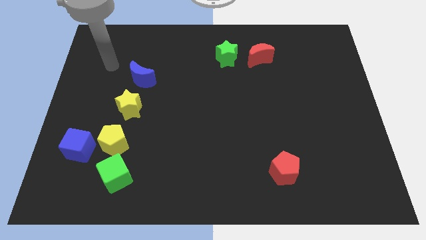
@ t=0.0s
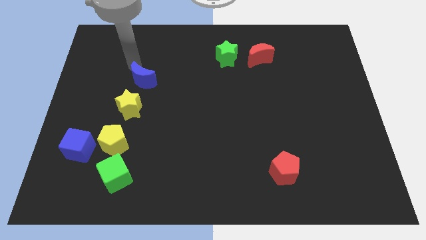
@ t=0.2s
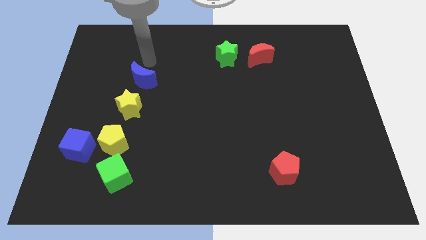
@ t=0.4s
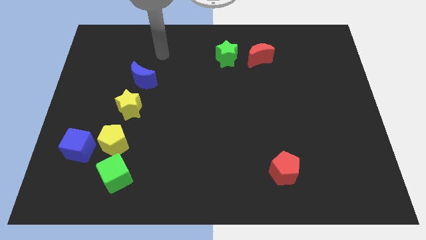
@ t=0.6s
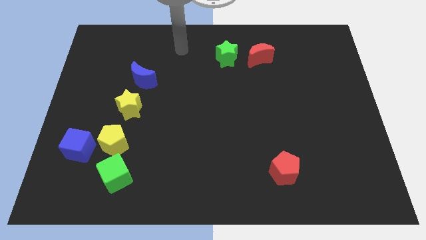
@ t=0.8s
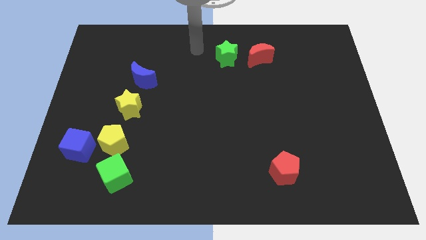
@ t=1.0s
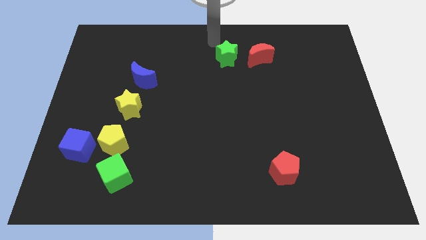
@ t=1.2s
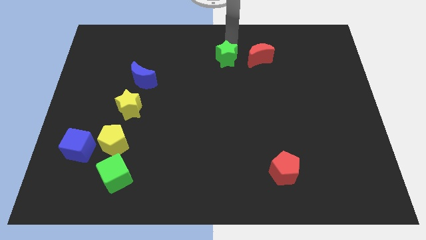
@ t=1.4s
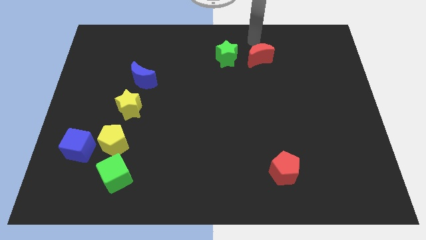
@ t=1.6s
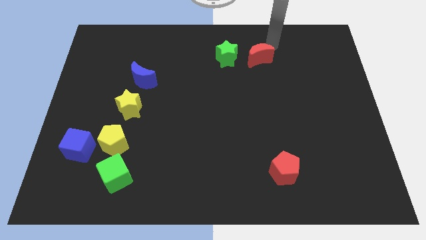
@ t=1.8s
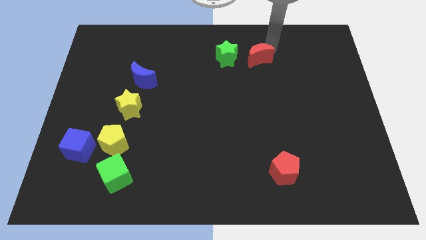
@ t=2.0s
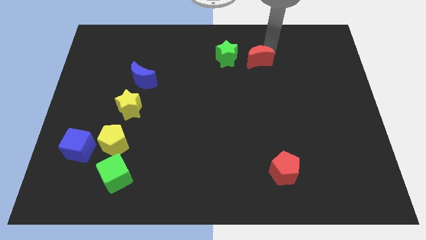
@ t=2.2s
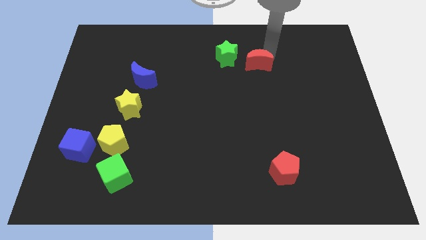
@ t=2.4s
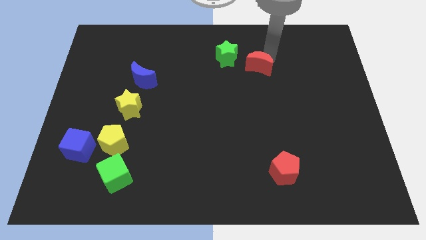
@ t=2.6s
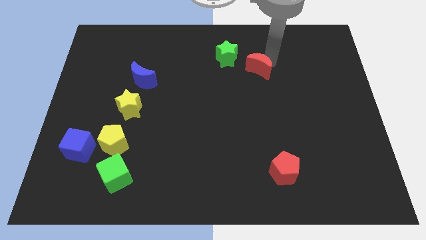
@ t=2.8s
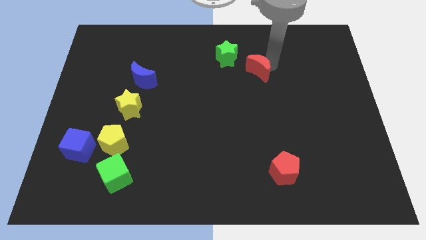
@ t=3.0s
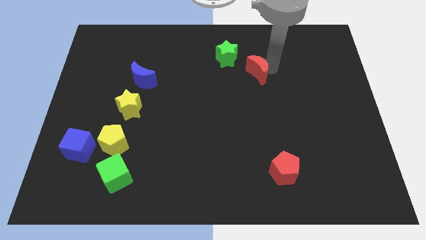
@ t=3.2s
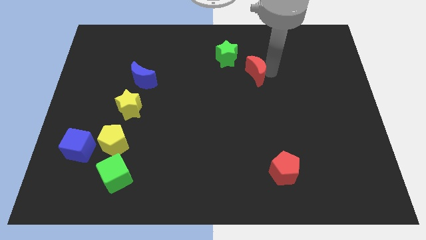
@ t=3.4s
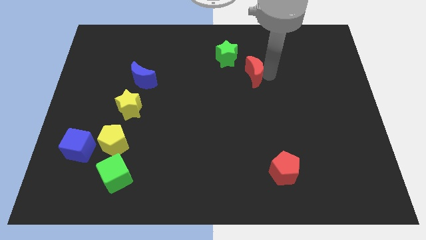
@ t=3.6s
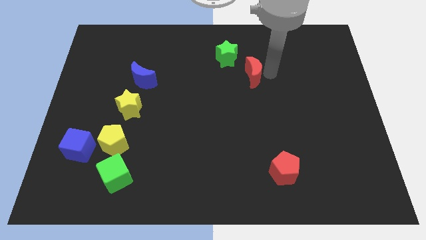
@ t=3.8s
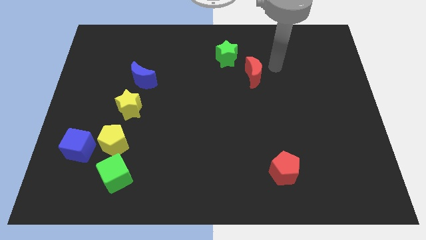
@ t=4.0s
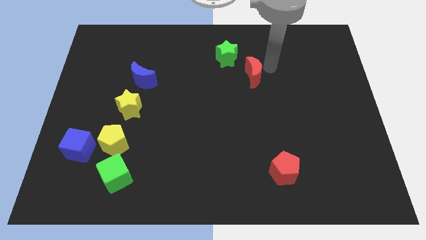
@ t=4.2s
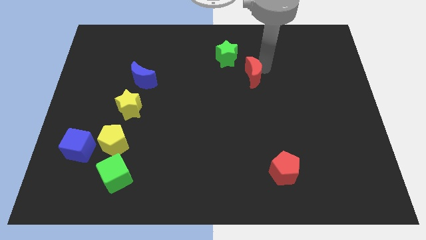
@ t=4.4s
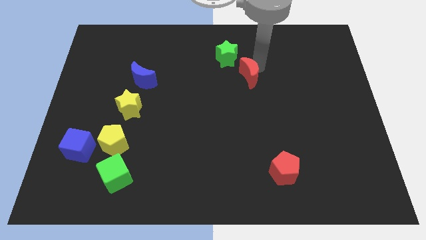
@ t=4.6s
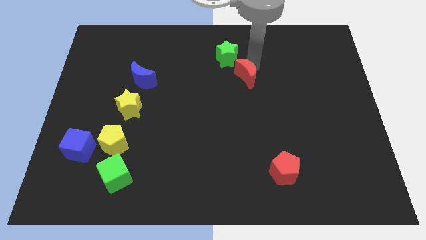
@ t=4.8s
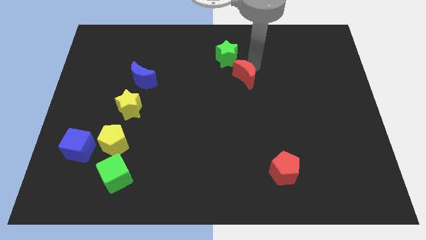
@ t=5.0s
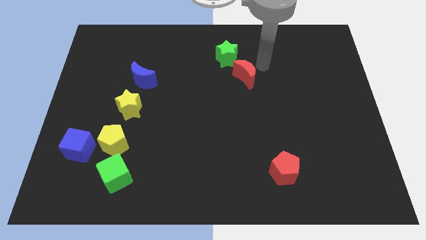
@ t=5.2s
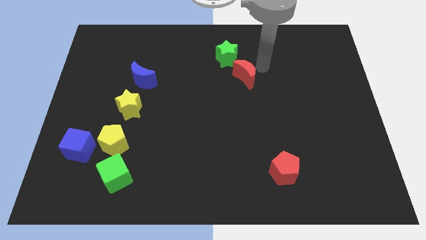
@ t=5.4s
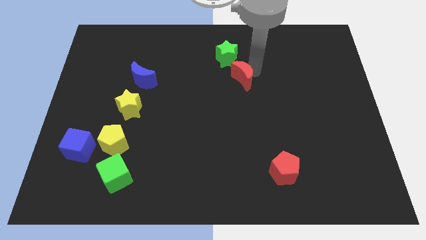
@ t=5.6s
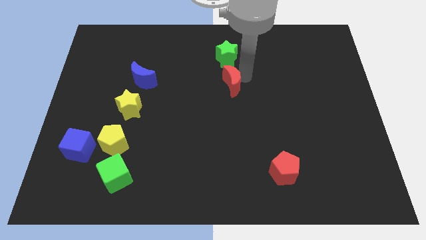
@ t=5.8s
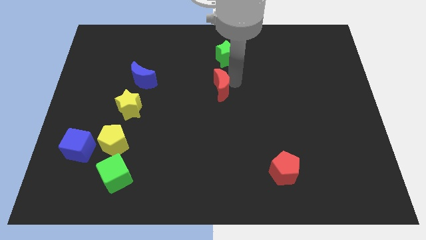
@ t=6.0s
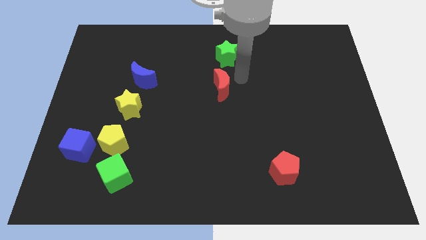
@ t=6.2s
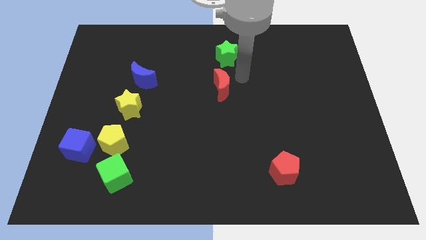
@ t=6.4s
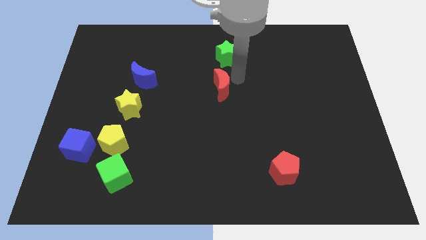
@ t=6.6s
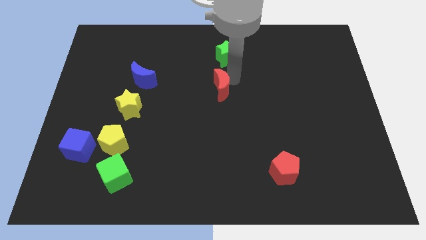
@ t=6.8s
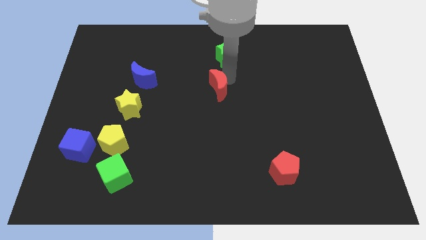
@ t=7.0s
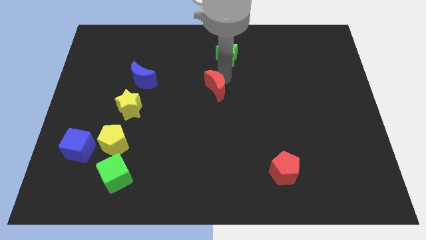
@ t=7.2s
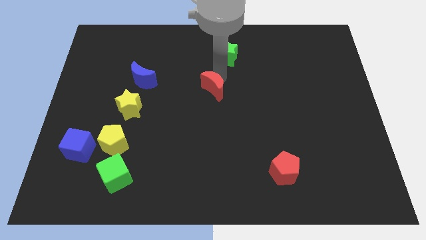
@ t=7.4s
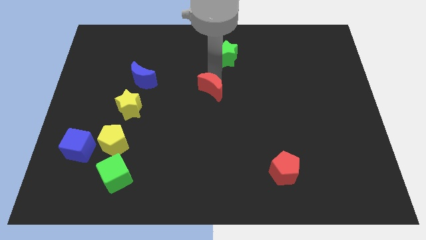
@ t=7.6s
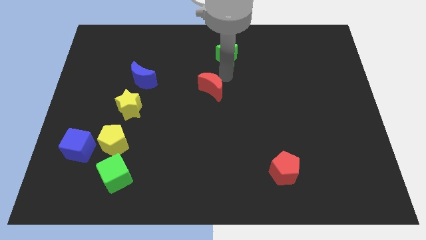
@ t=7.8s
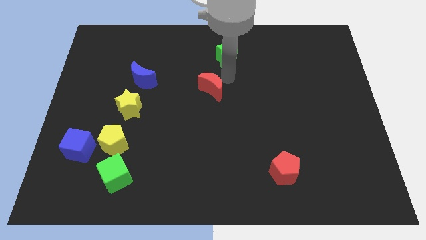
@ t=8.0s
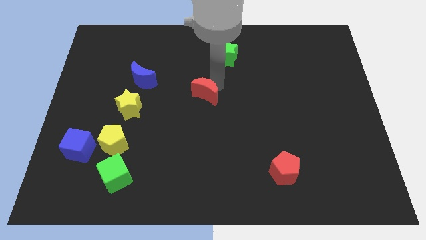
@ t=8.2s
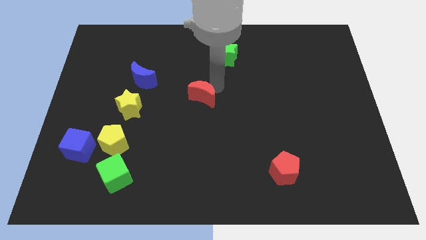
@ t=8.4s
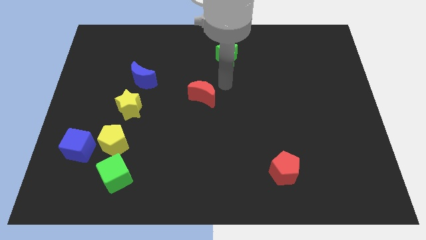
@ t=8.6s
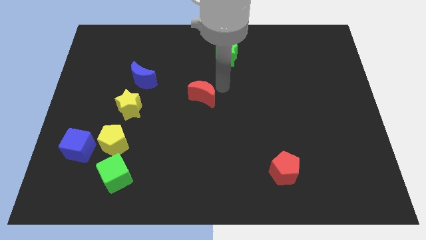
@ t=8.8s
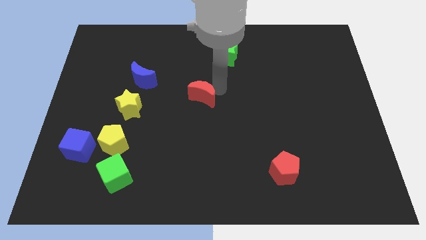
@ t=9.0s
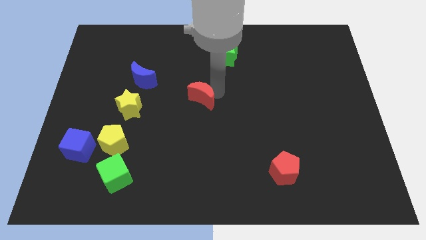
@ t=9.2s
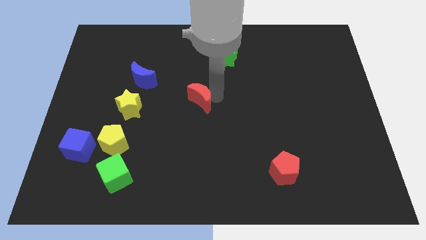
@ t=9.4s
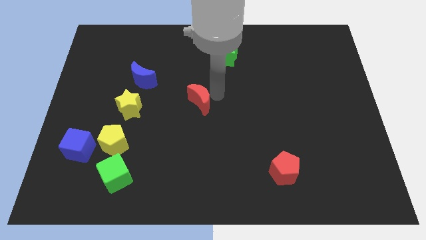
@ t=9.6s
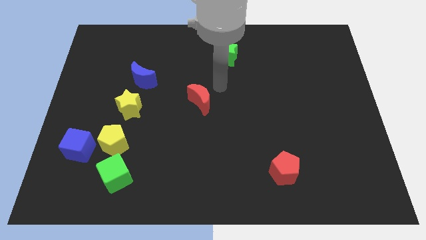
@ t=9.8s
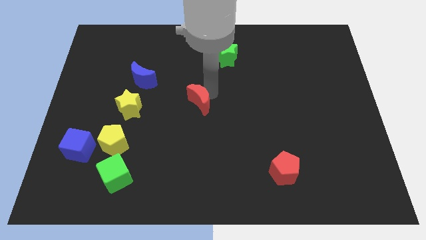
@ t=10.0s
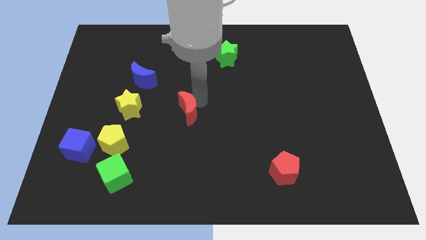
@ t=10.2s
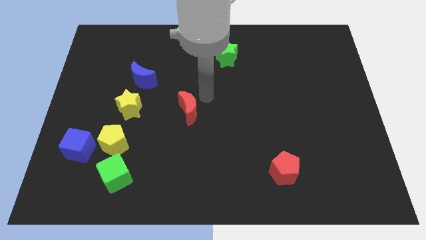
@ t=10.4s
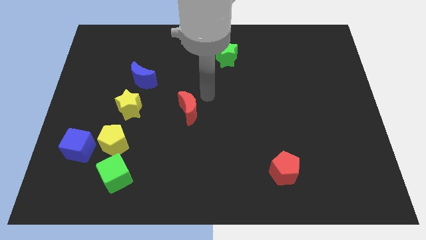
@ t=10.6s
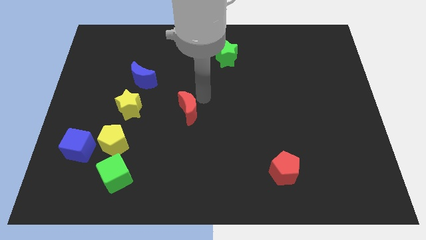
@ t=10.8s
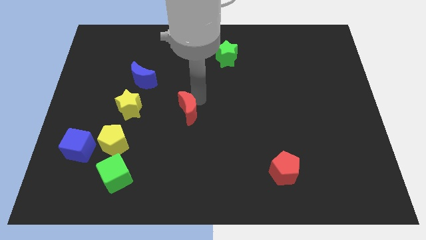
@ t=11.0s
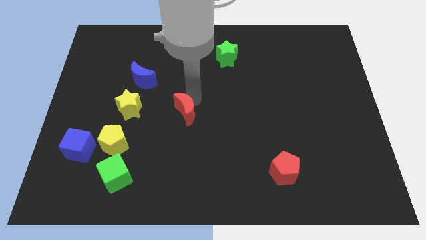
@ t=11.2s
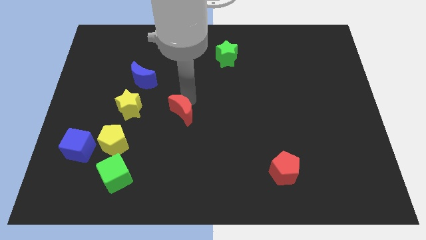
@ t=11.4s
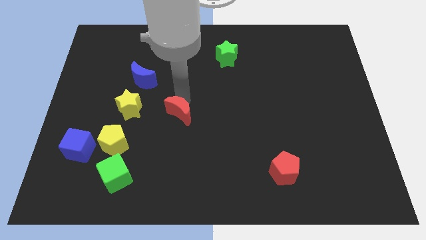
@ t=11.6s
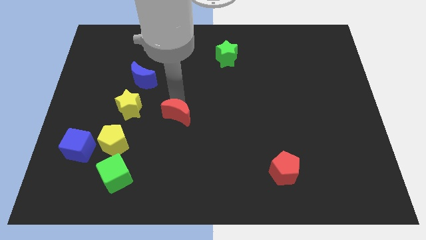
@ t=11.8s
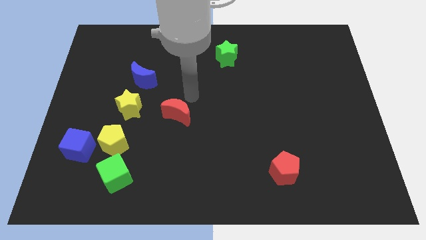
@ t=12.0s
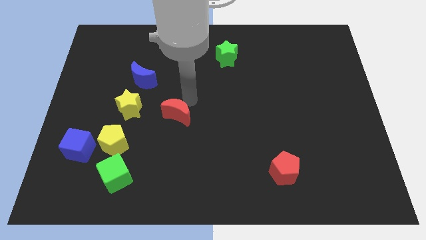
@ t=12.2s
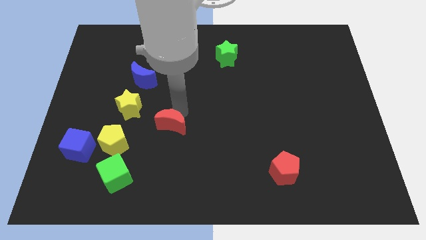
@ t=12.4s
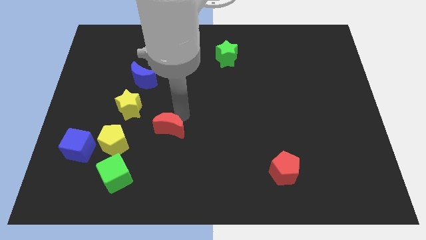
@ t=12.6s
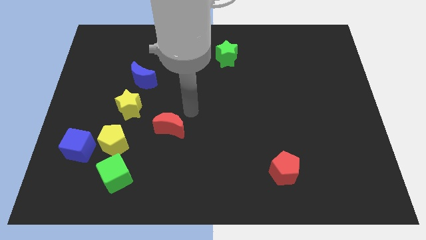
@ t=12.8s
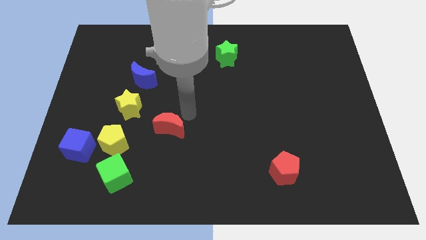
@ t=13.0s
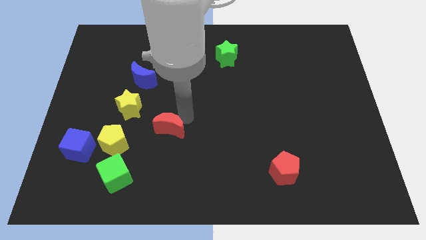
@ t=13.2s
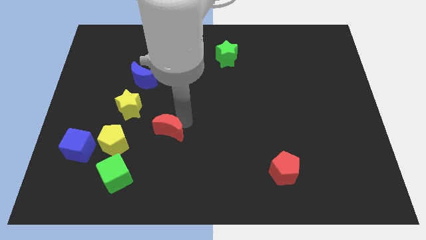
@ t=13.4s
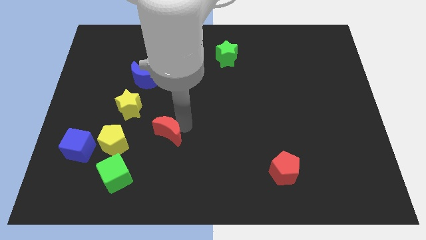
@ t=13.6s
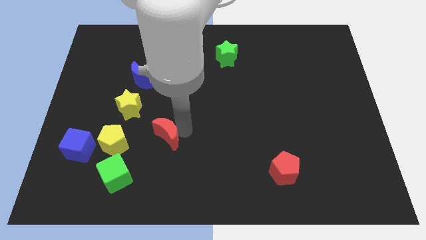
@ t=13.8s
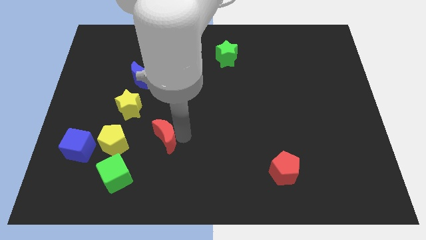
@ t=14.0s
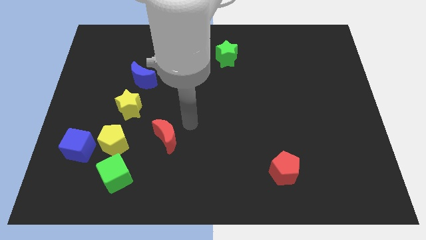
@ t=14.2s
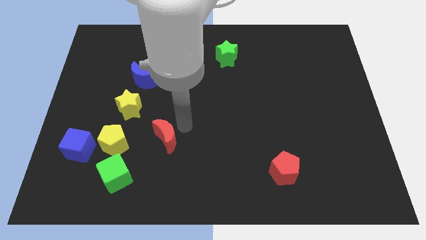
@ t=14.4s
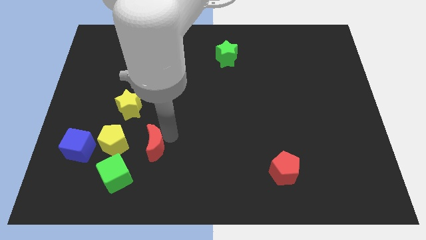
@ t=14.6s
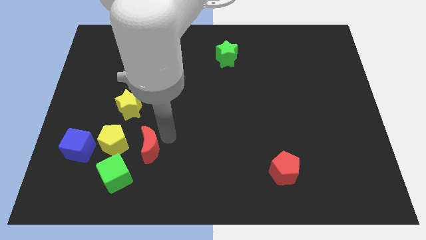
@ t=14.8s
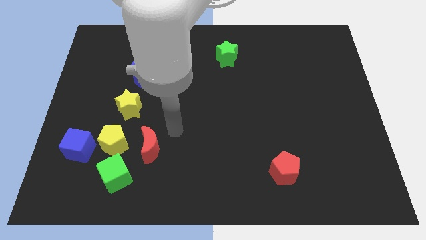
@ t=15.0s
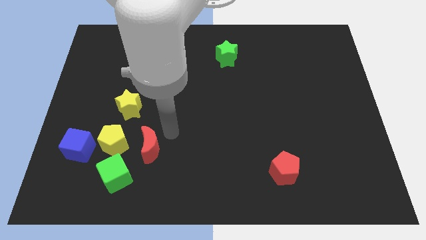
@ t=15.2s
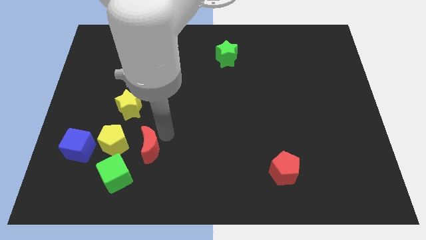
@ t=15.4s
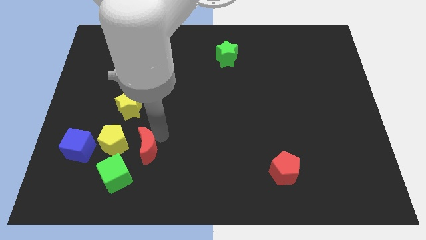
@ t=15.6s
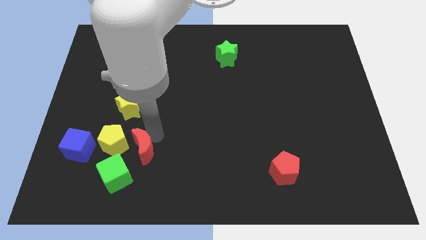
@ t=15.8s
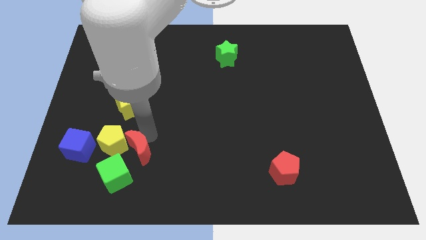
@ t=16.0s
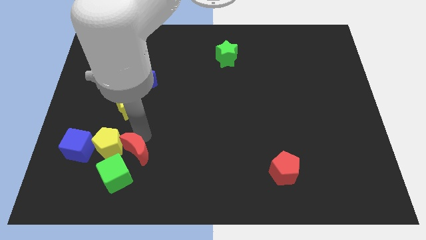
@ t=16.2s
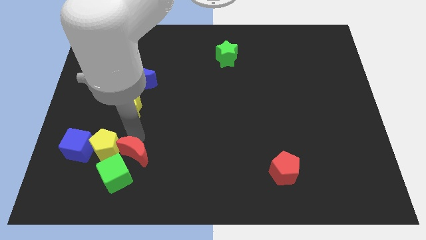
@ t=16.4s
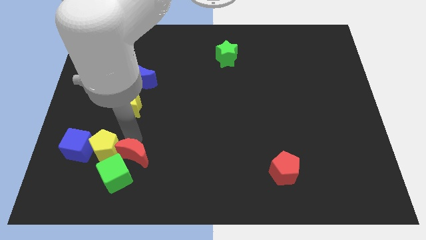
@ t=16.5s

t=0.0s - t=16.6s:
slide the red moon towards the green cube
